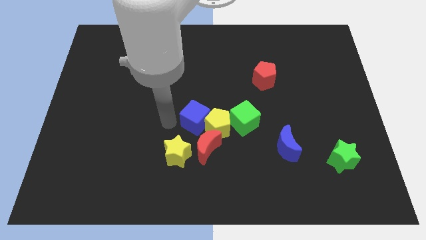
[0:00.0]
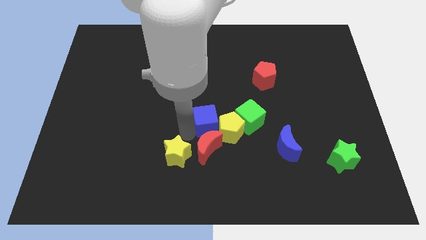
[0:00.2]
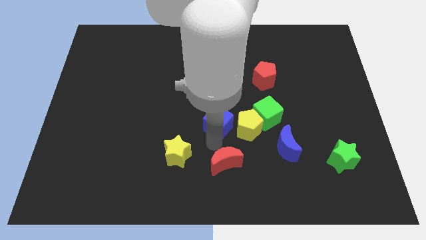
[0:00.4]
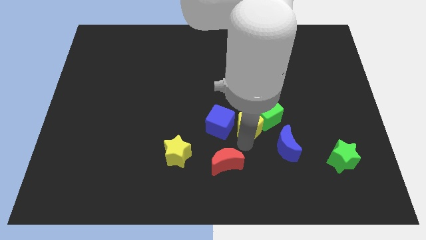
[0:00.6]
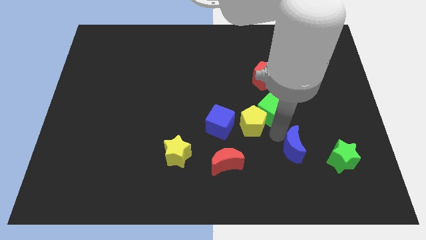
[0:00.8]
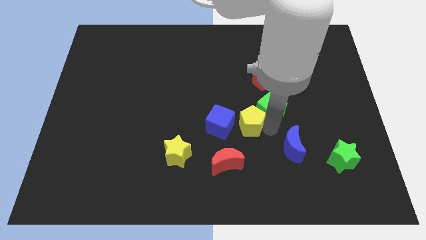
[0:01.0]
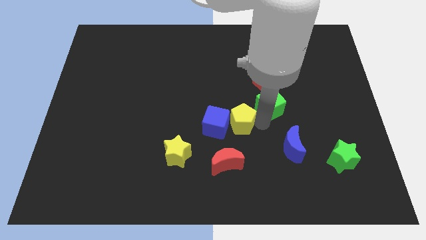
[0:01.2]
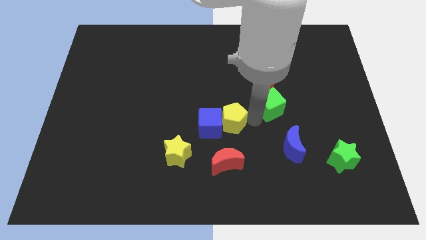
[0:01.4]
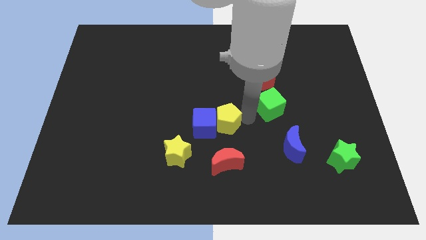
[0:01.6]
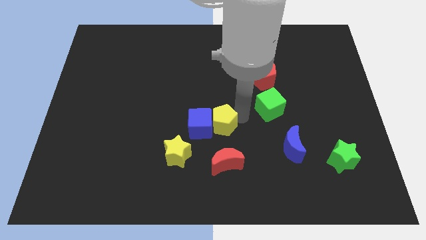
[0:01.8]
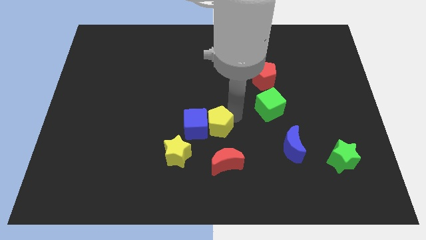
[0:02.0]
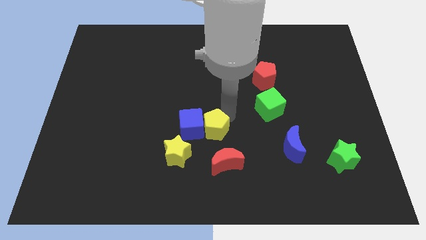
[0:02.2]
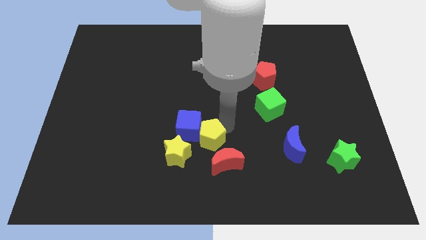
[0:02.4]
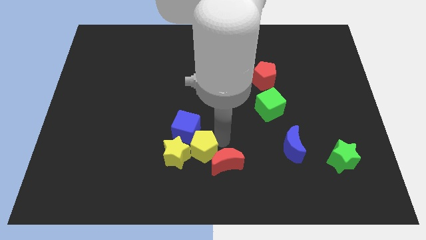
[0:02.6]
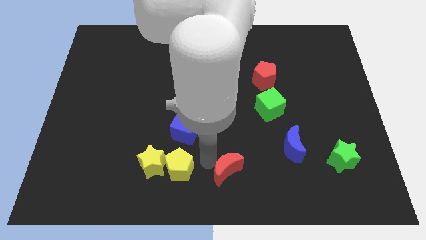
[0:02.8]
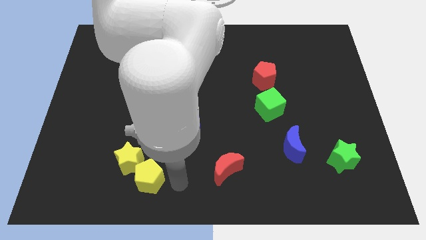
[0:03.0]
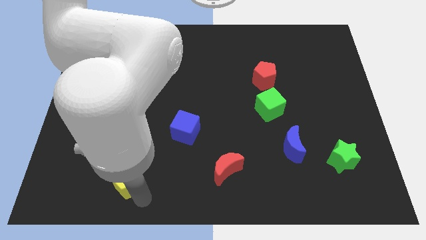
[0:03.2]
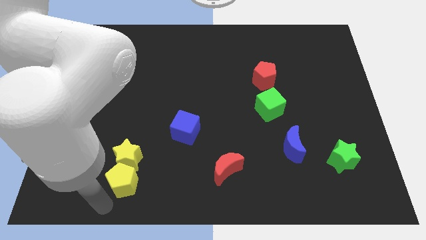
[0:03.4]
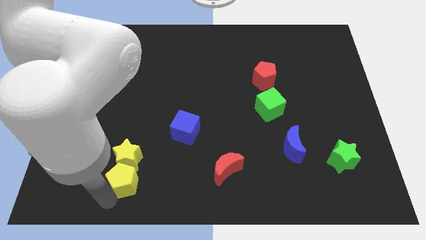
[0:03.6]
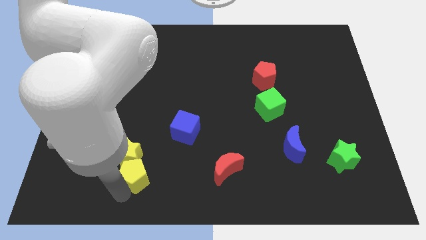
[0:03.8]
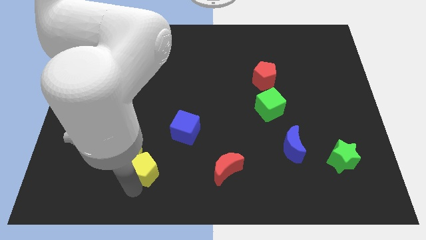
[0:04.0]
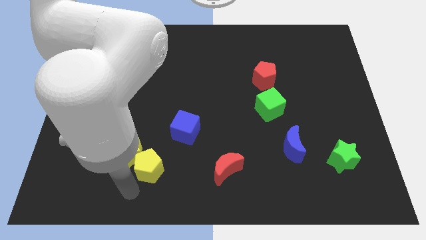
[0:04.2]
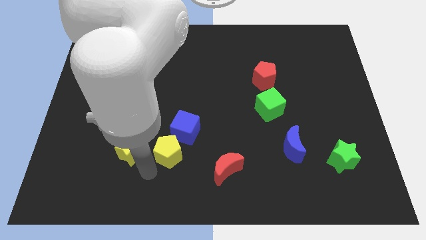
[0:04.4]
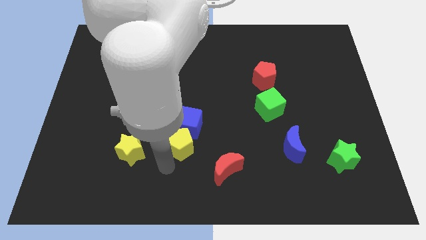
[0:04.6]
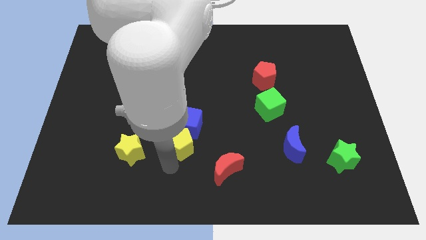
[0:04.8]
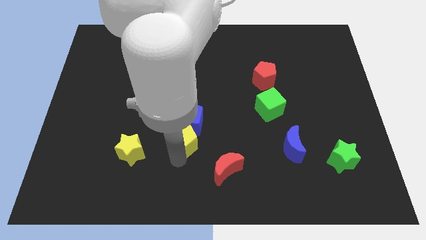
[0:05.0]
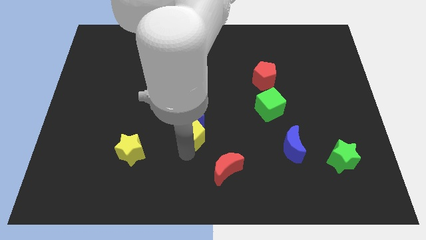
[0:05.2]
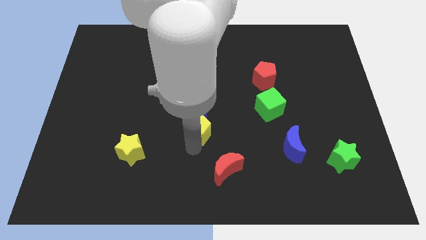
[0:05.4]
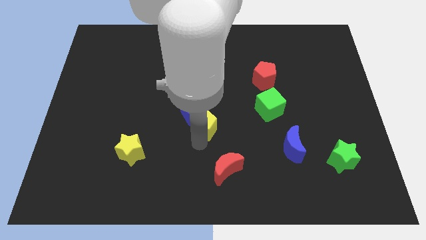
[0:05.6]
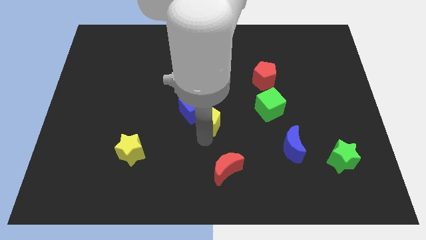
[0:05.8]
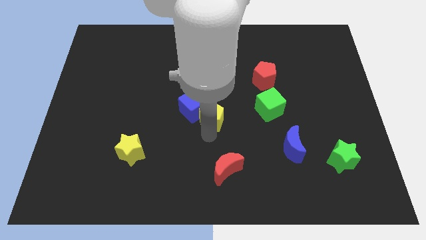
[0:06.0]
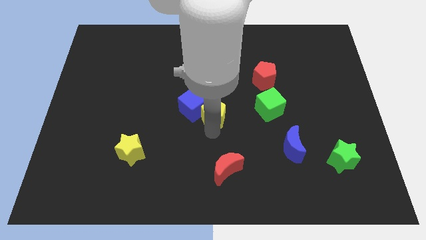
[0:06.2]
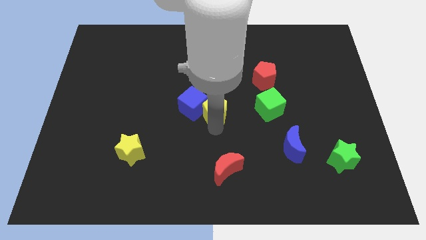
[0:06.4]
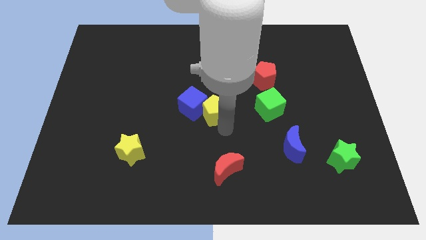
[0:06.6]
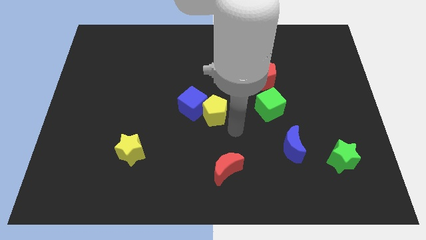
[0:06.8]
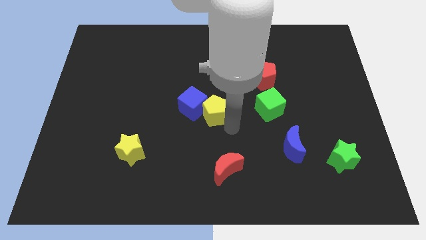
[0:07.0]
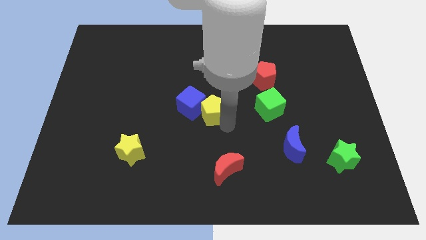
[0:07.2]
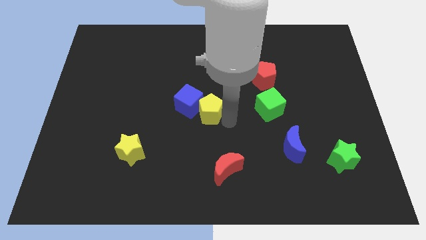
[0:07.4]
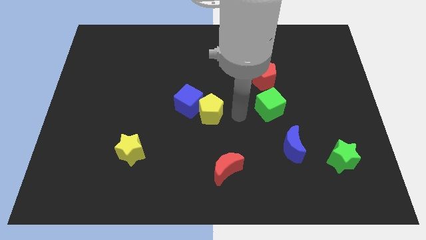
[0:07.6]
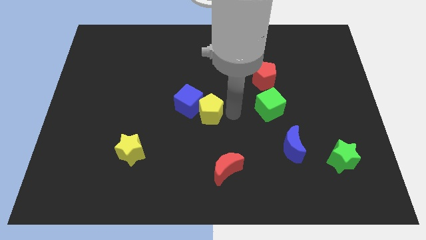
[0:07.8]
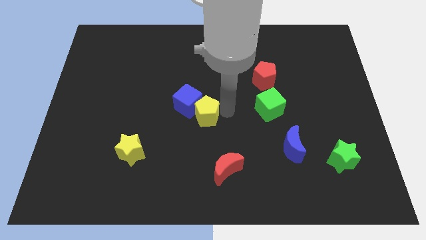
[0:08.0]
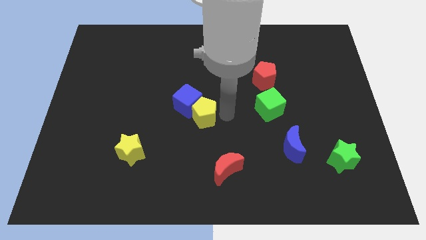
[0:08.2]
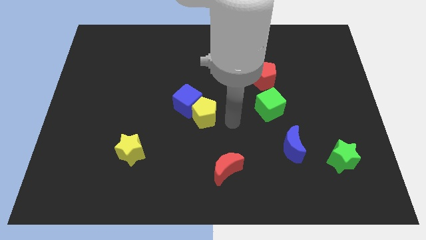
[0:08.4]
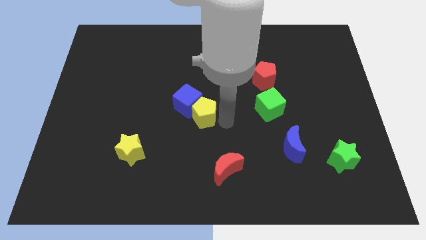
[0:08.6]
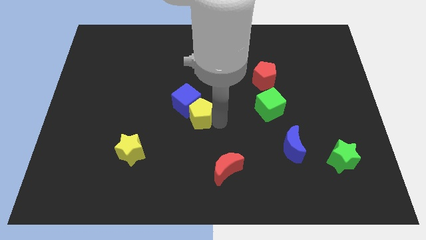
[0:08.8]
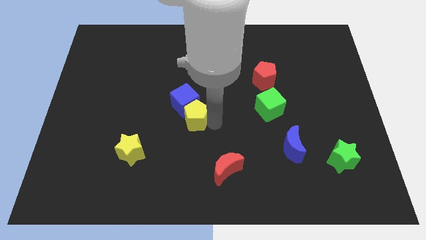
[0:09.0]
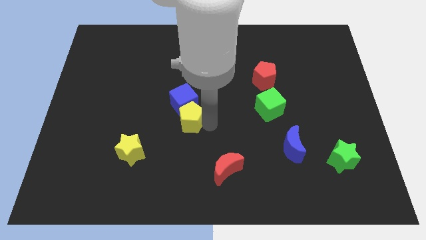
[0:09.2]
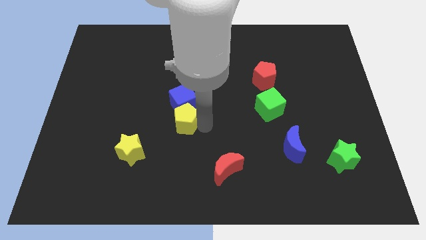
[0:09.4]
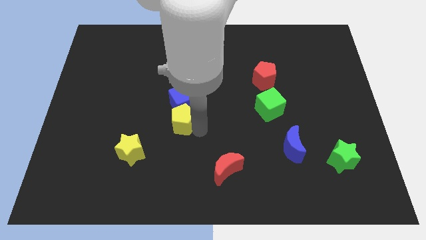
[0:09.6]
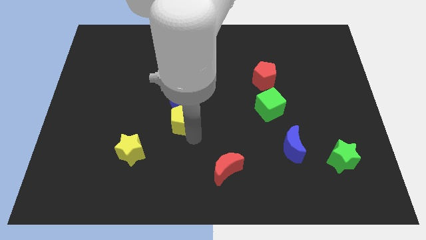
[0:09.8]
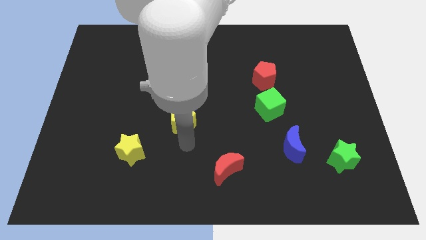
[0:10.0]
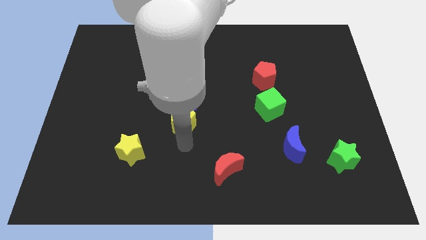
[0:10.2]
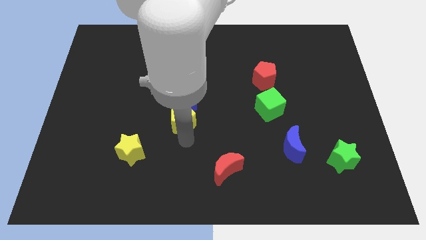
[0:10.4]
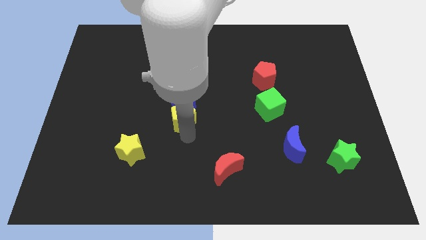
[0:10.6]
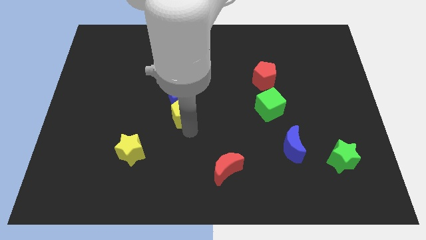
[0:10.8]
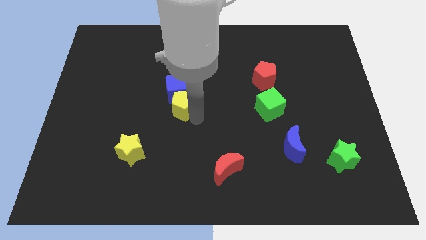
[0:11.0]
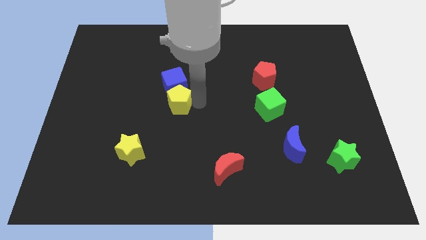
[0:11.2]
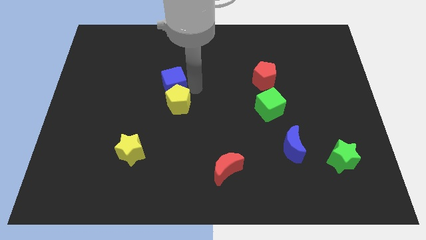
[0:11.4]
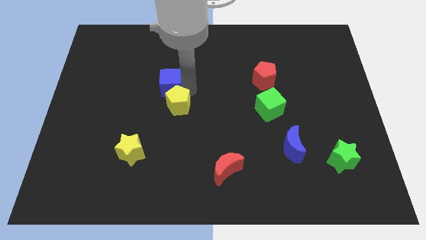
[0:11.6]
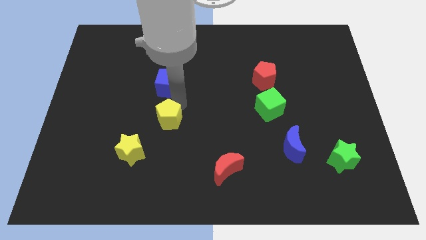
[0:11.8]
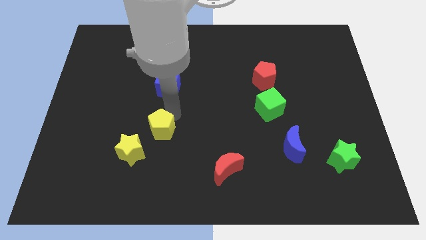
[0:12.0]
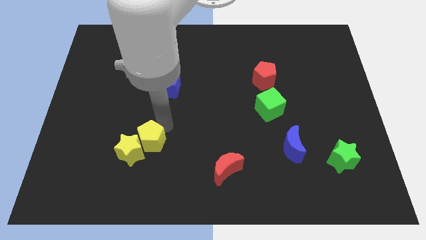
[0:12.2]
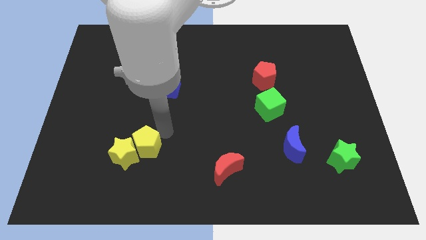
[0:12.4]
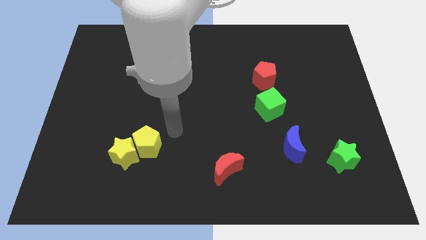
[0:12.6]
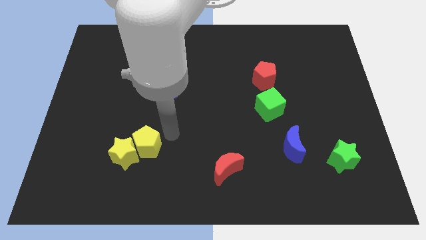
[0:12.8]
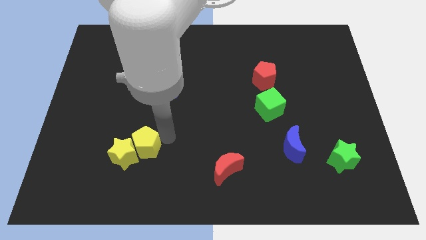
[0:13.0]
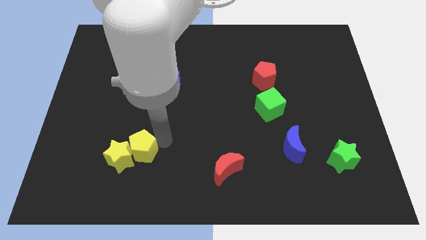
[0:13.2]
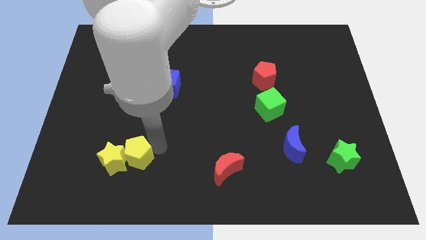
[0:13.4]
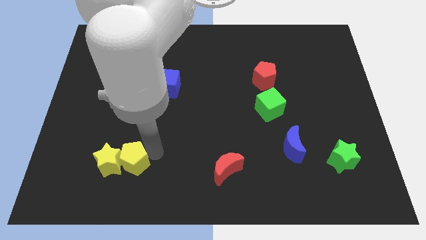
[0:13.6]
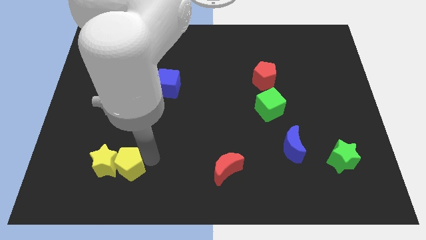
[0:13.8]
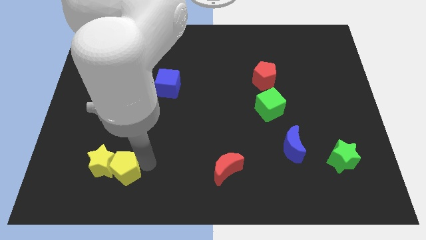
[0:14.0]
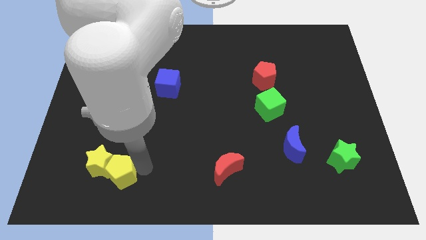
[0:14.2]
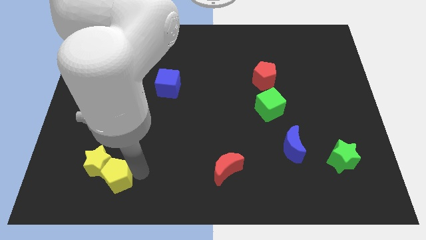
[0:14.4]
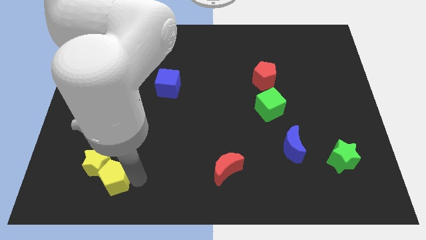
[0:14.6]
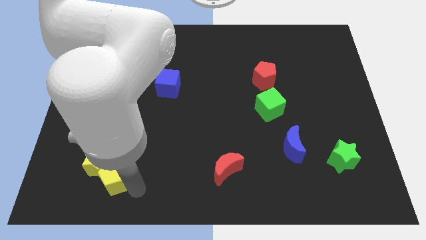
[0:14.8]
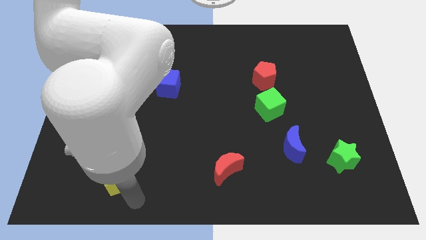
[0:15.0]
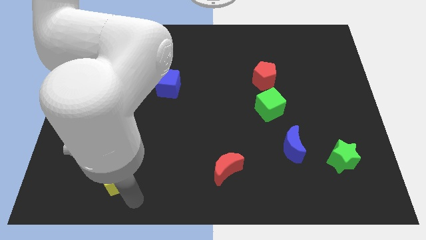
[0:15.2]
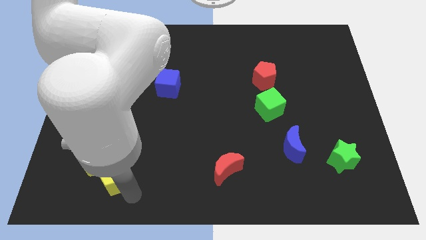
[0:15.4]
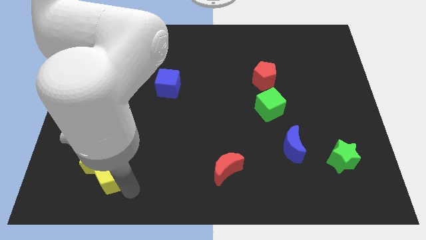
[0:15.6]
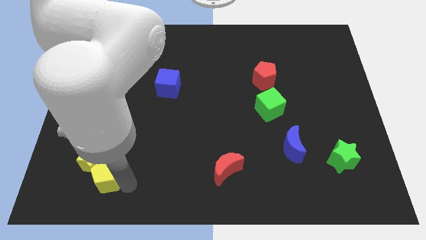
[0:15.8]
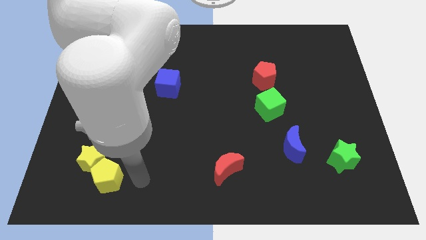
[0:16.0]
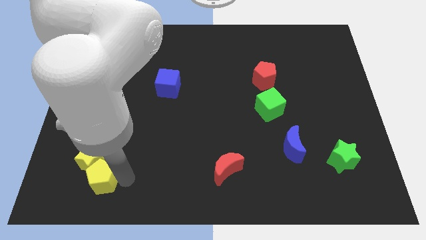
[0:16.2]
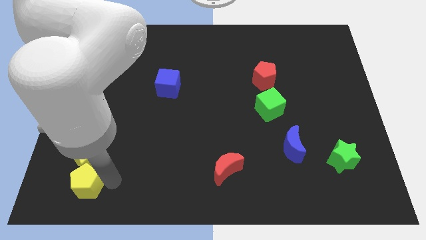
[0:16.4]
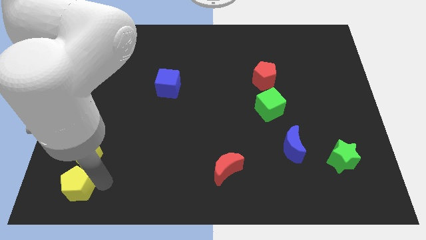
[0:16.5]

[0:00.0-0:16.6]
slide the yellow pentagon to the bottom left
